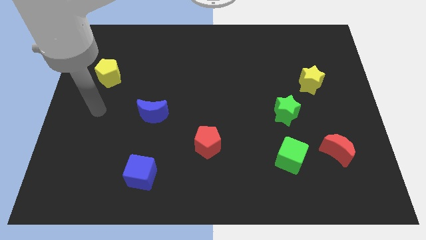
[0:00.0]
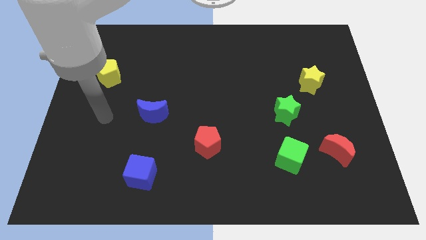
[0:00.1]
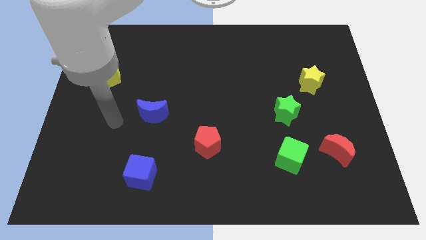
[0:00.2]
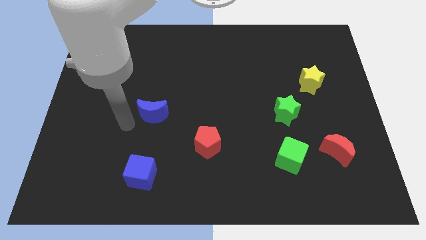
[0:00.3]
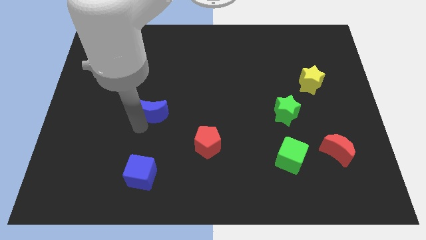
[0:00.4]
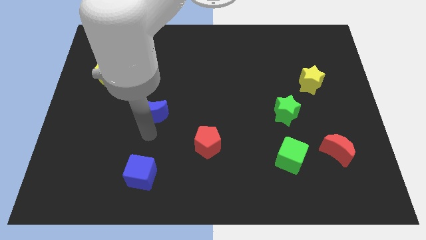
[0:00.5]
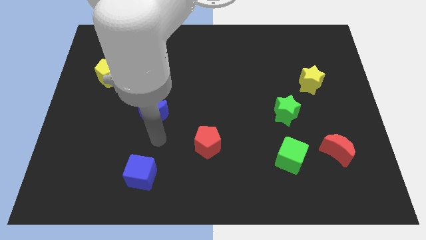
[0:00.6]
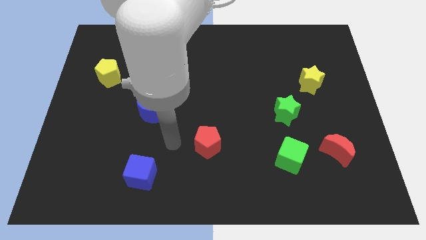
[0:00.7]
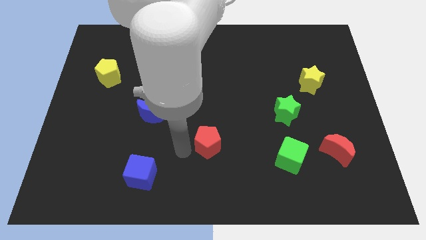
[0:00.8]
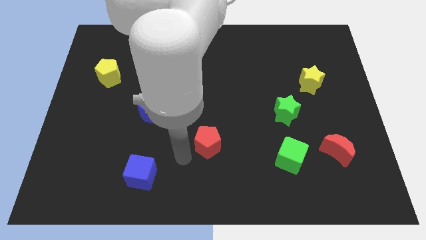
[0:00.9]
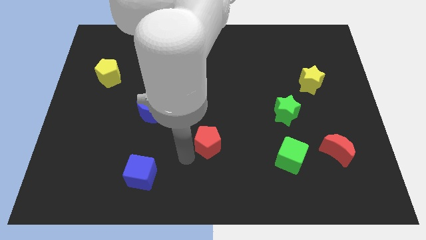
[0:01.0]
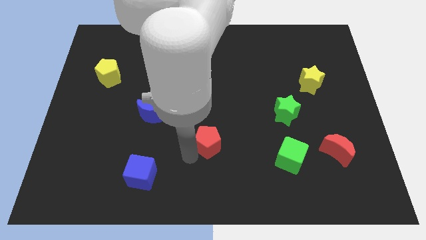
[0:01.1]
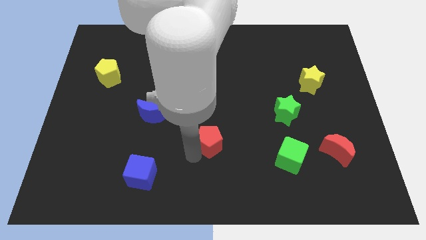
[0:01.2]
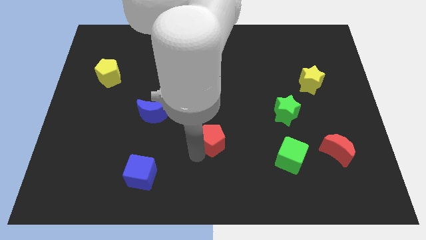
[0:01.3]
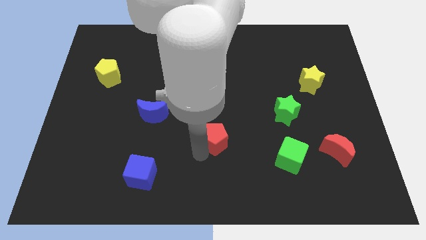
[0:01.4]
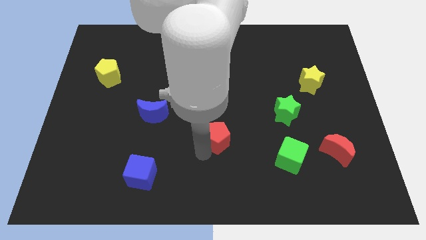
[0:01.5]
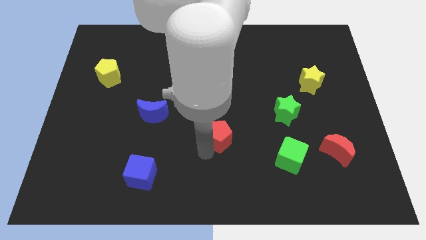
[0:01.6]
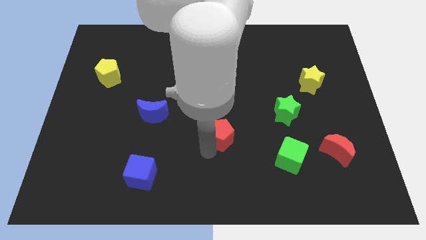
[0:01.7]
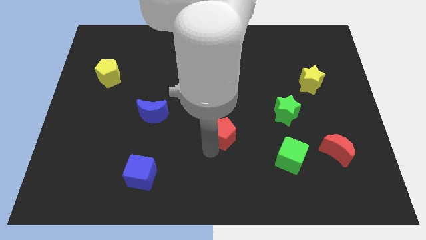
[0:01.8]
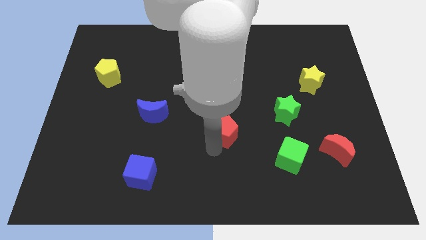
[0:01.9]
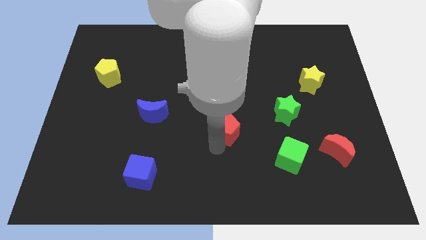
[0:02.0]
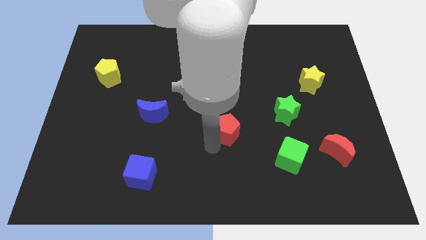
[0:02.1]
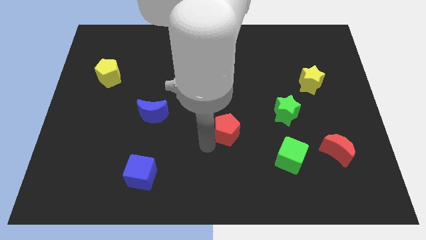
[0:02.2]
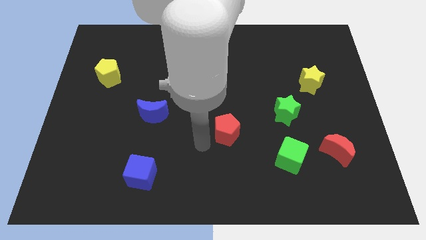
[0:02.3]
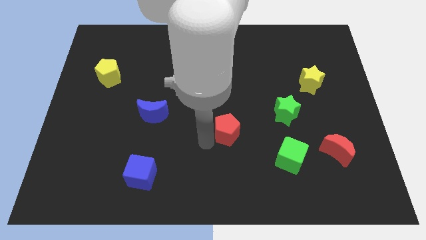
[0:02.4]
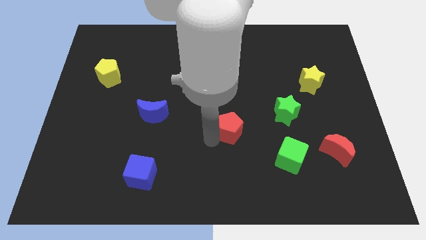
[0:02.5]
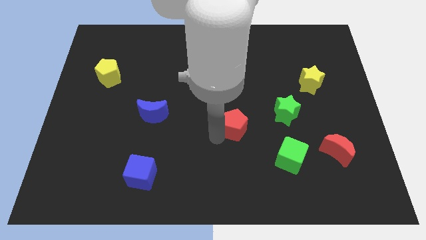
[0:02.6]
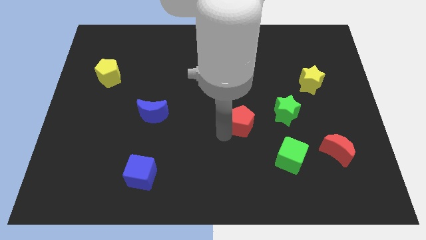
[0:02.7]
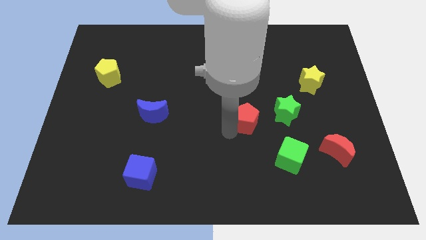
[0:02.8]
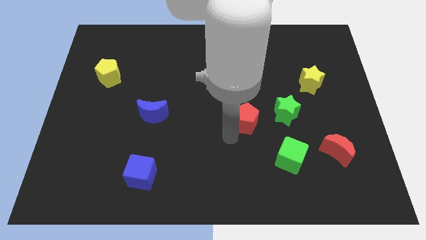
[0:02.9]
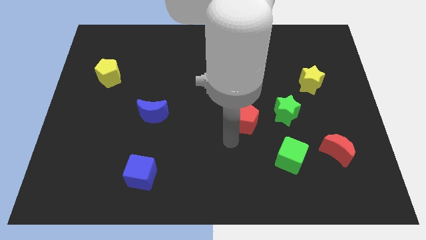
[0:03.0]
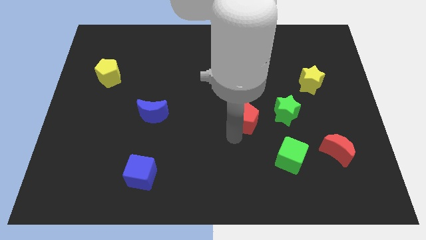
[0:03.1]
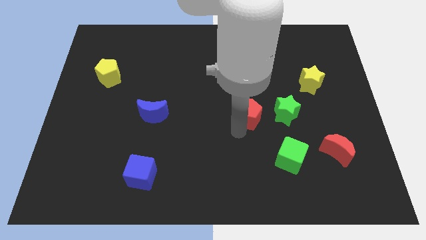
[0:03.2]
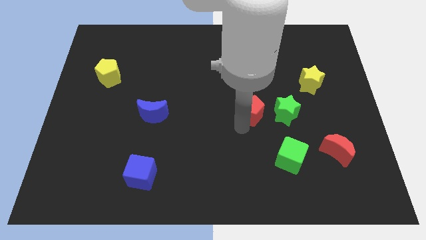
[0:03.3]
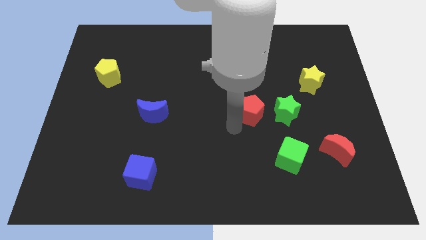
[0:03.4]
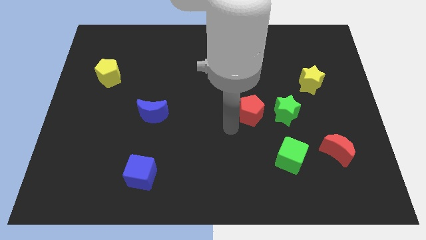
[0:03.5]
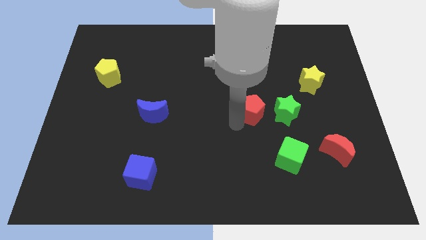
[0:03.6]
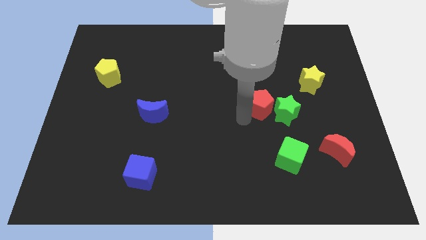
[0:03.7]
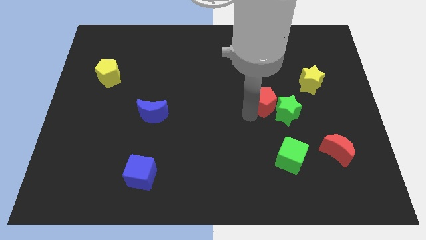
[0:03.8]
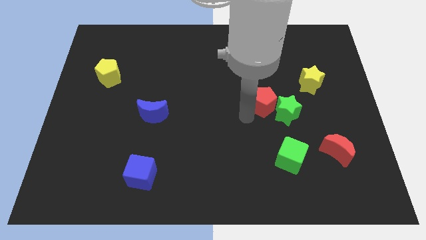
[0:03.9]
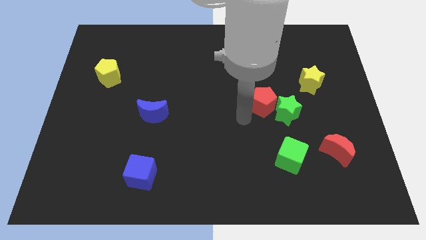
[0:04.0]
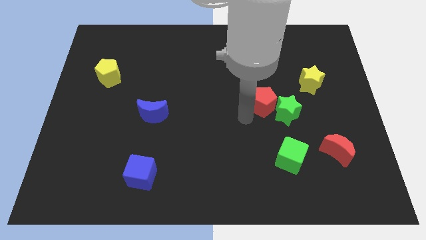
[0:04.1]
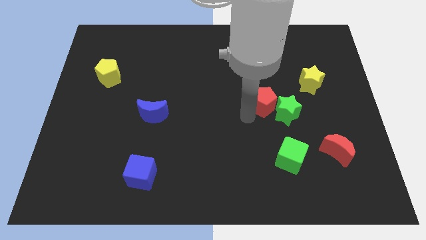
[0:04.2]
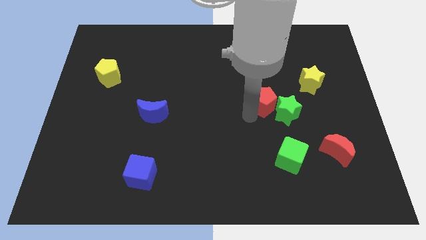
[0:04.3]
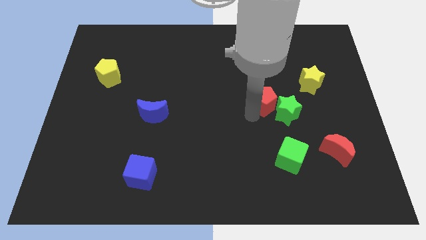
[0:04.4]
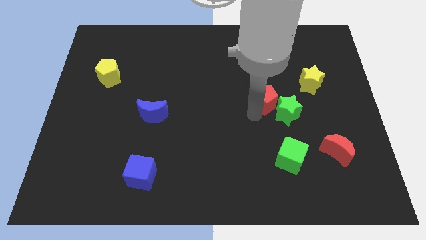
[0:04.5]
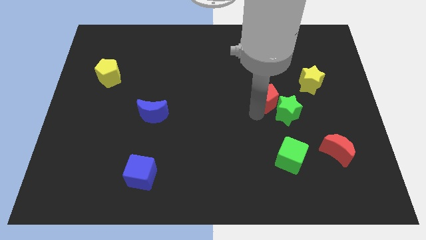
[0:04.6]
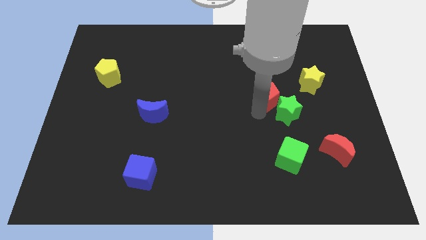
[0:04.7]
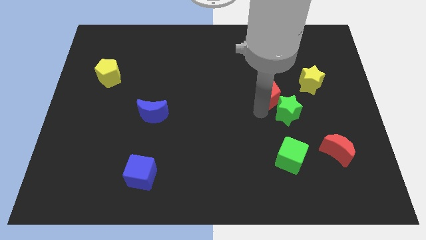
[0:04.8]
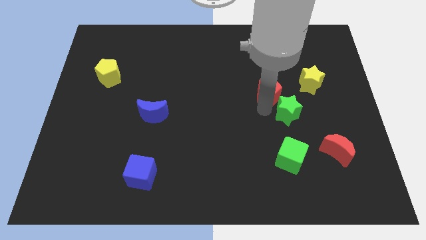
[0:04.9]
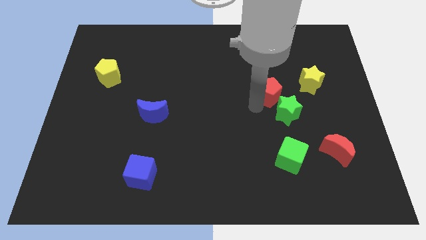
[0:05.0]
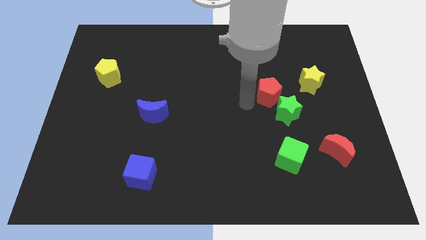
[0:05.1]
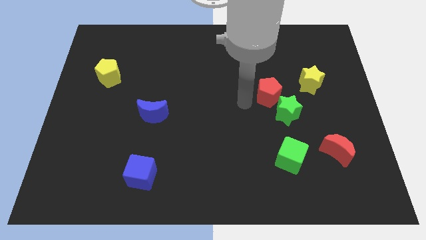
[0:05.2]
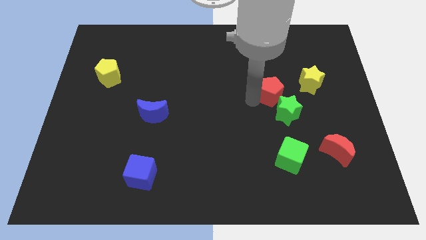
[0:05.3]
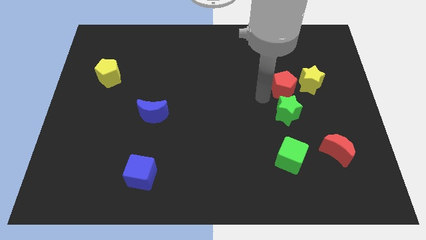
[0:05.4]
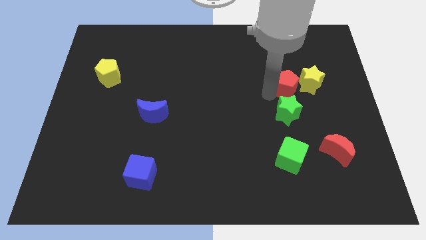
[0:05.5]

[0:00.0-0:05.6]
move the red pentagon close to the yellow star

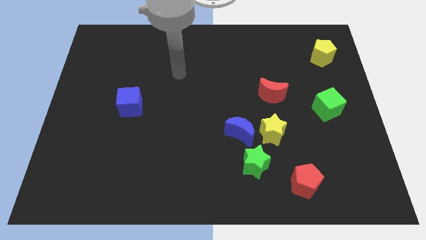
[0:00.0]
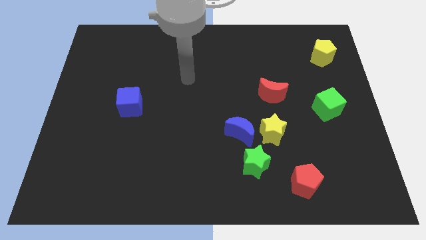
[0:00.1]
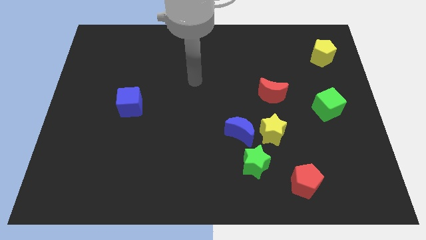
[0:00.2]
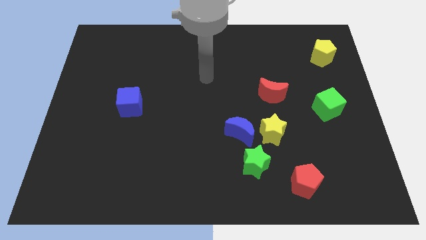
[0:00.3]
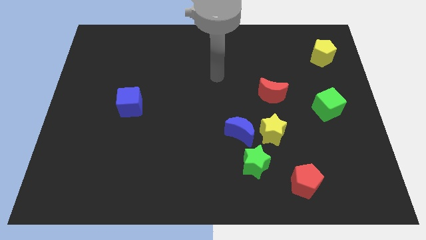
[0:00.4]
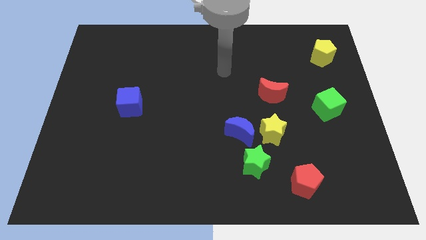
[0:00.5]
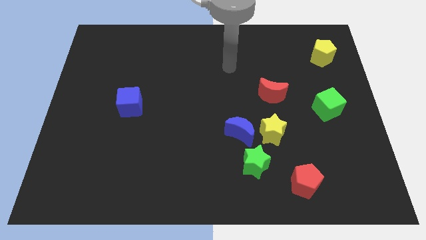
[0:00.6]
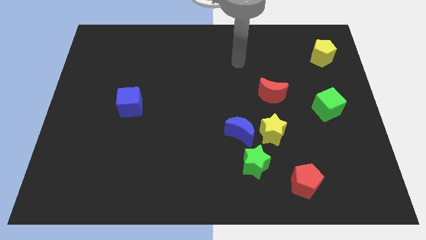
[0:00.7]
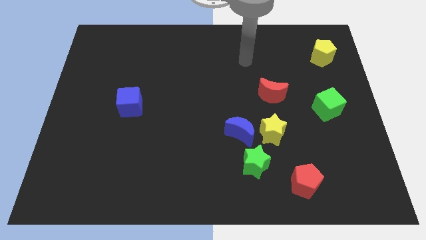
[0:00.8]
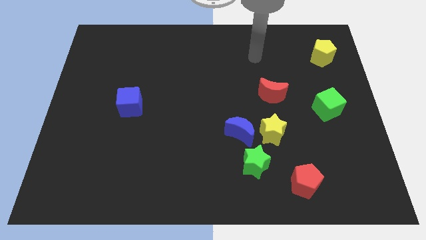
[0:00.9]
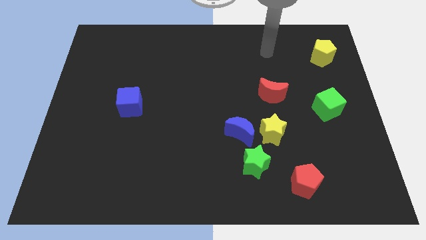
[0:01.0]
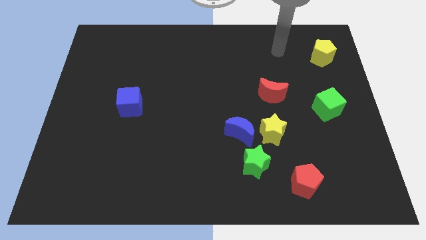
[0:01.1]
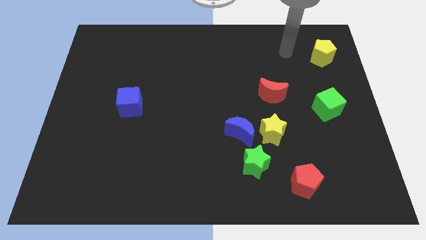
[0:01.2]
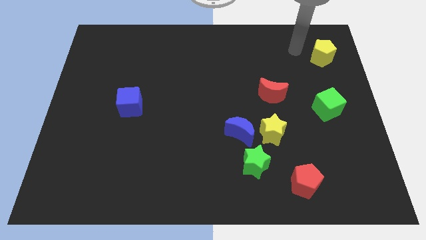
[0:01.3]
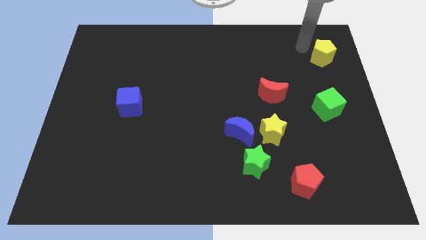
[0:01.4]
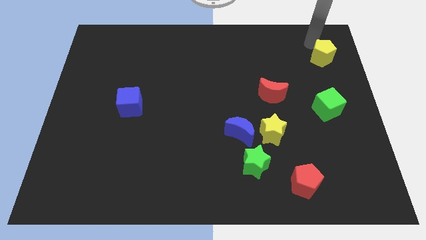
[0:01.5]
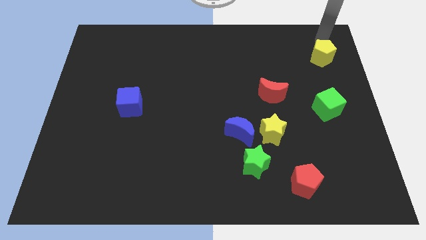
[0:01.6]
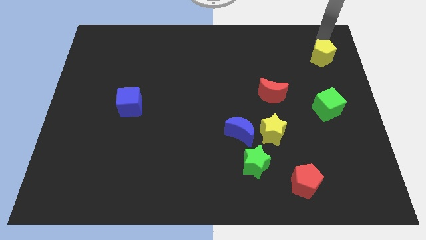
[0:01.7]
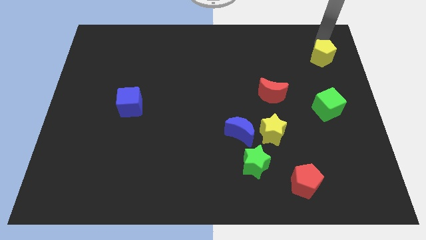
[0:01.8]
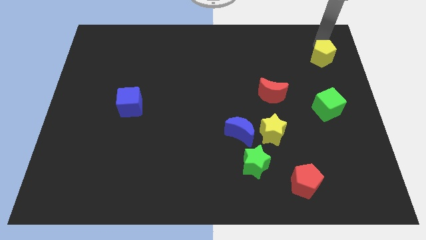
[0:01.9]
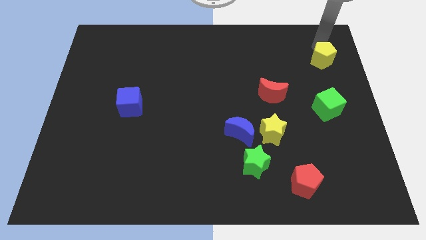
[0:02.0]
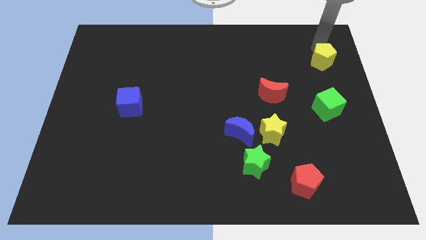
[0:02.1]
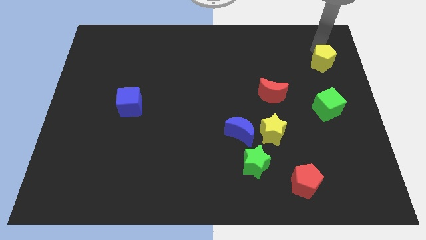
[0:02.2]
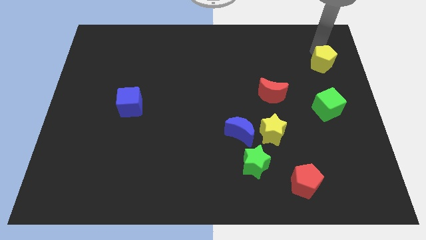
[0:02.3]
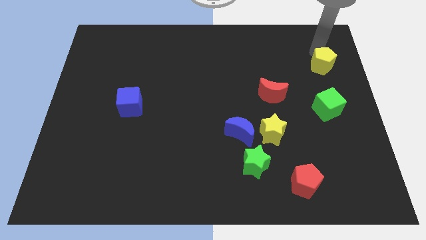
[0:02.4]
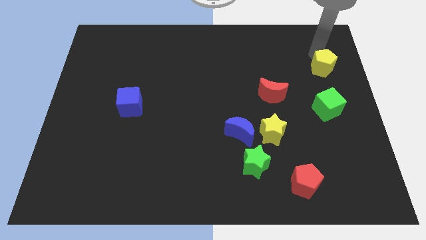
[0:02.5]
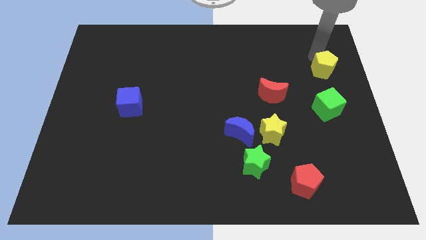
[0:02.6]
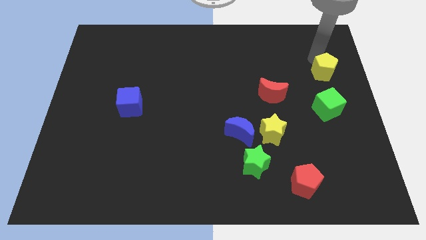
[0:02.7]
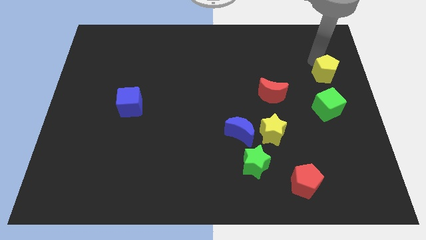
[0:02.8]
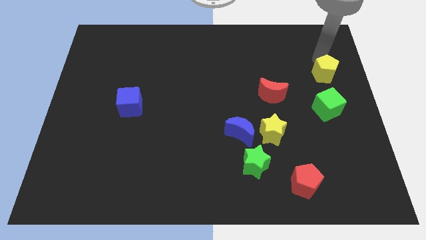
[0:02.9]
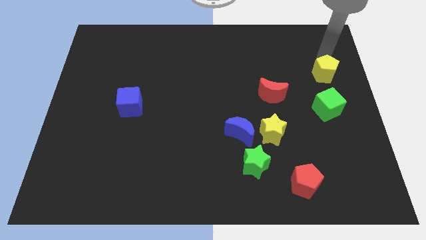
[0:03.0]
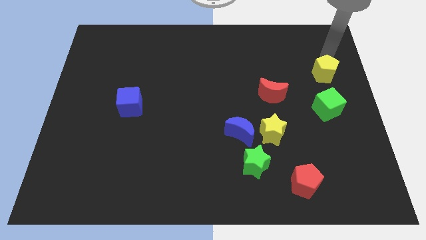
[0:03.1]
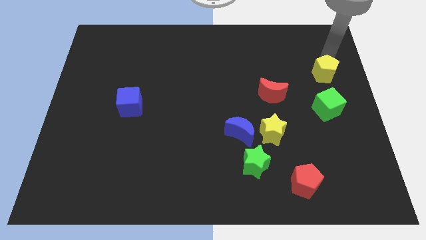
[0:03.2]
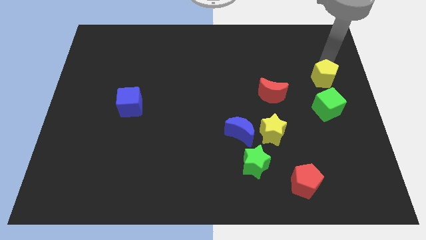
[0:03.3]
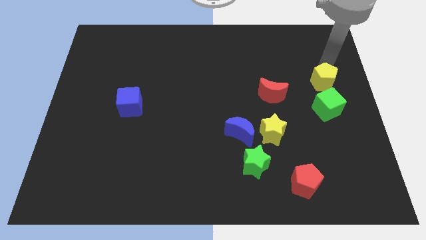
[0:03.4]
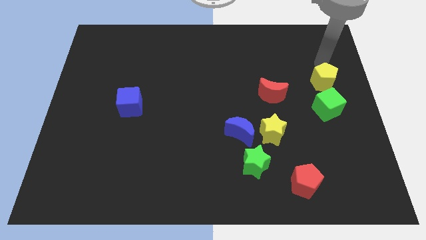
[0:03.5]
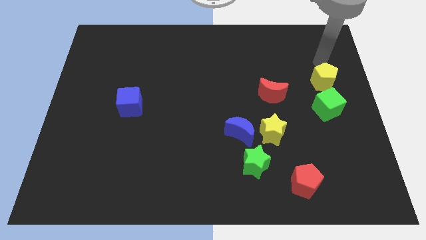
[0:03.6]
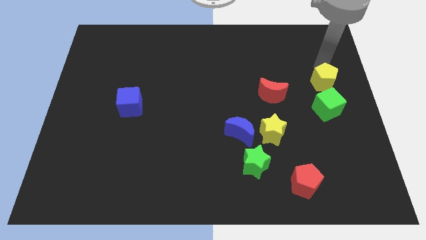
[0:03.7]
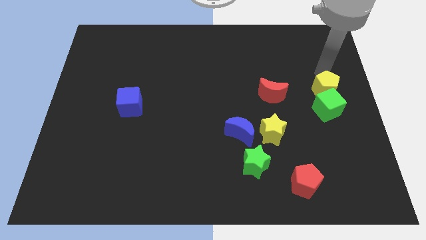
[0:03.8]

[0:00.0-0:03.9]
put the yellow pentagon close to the green cube
